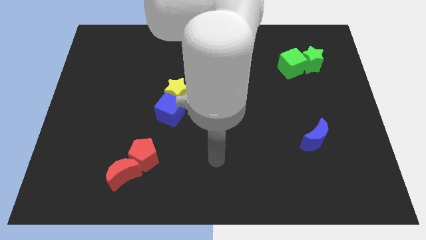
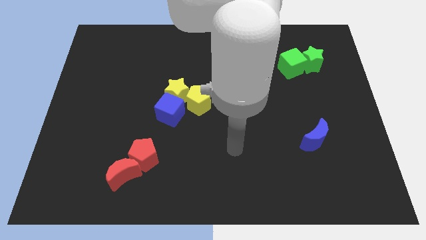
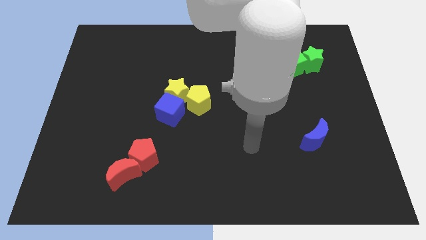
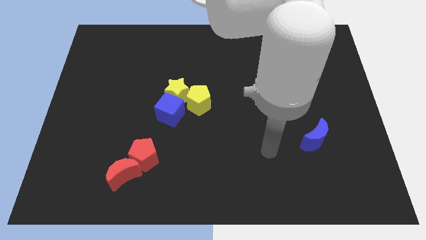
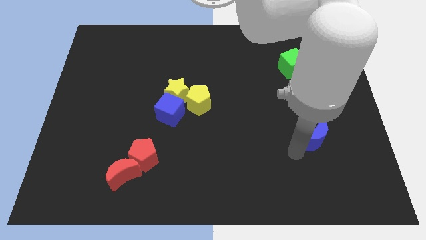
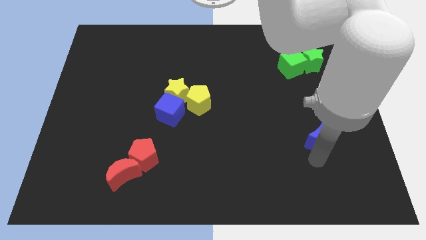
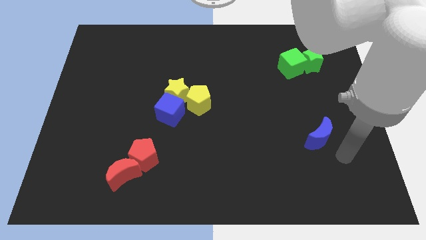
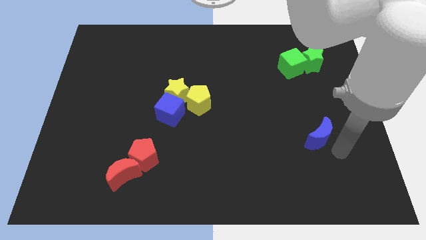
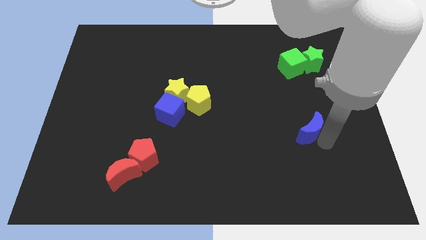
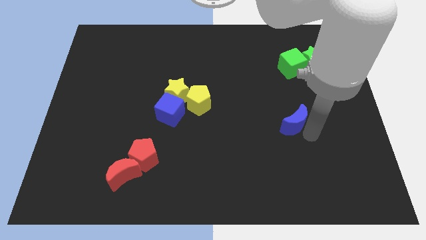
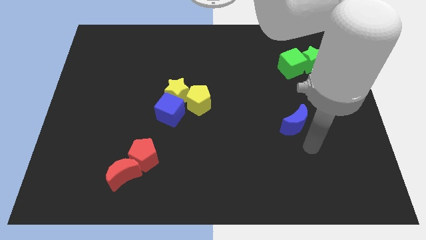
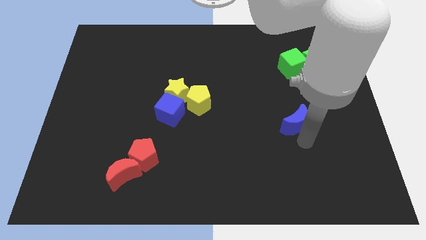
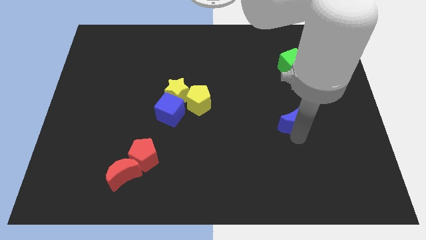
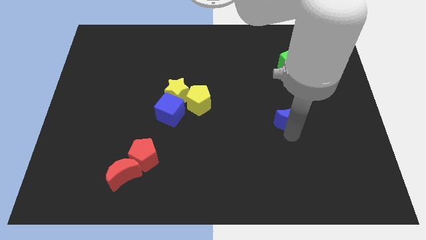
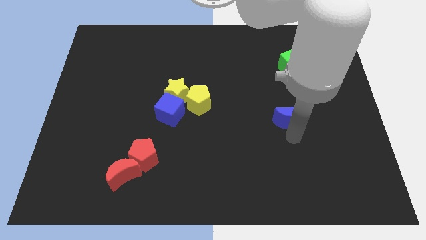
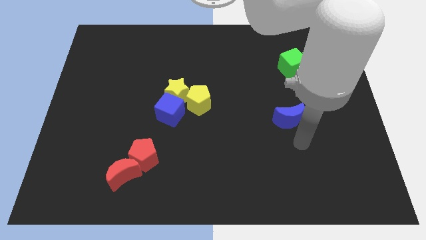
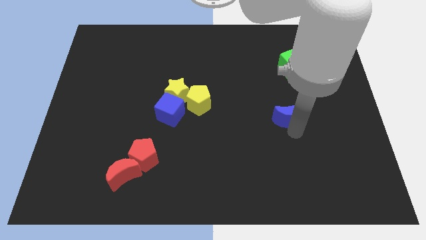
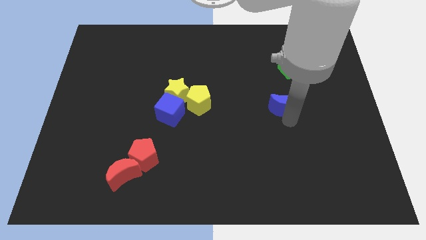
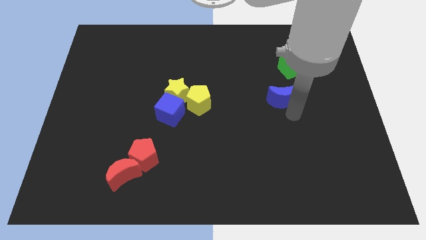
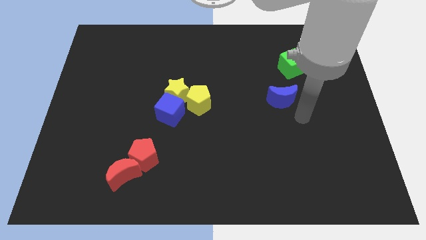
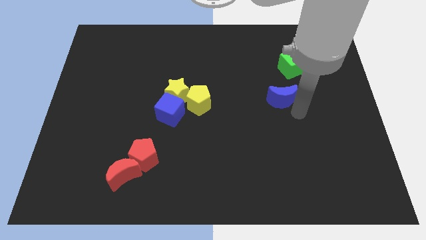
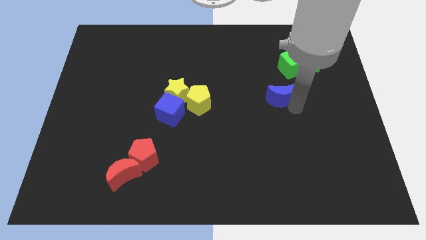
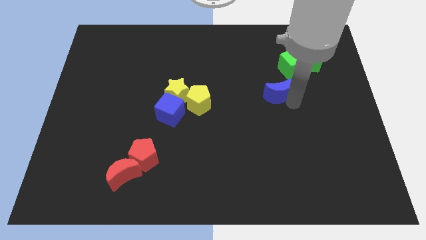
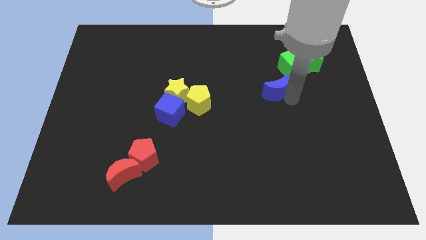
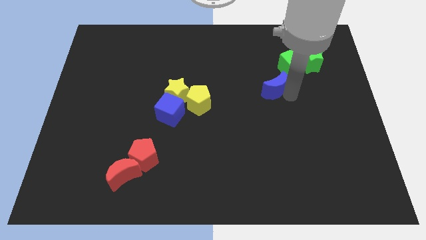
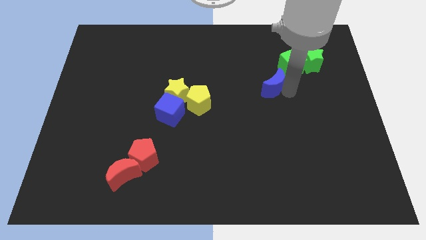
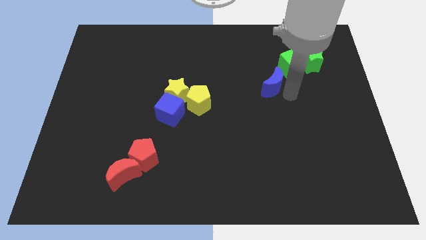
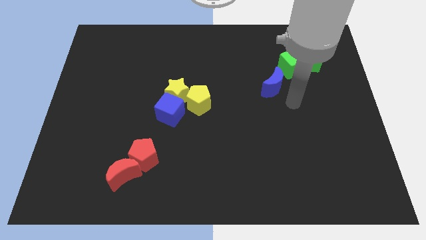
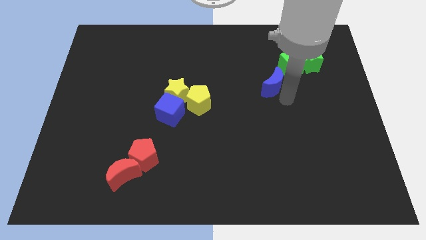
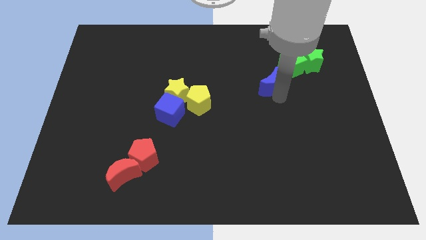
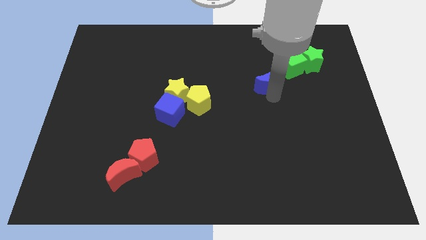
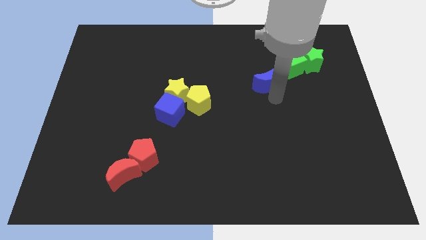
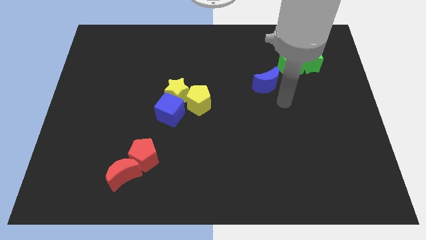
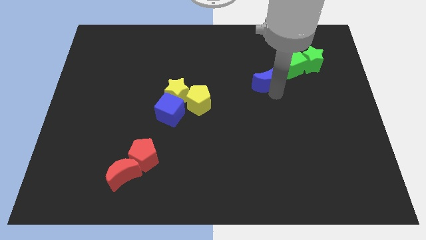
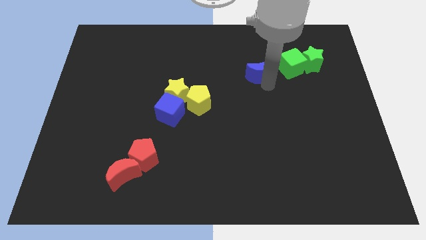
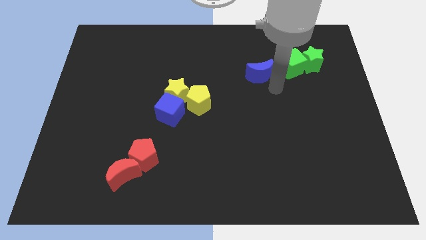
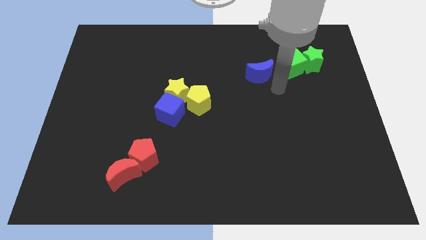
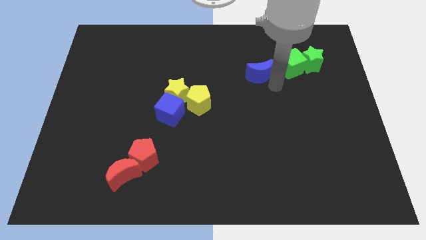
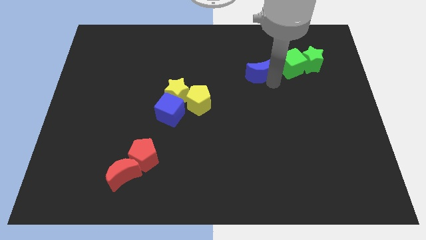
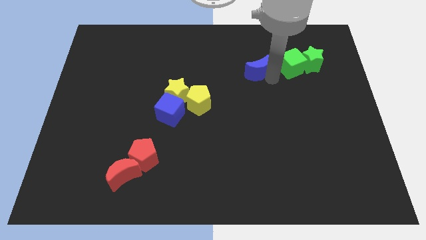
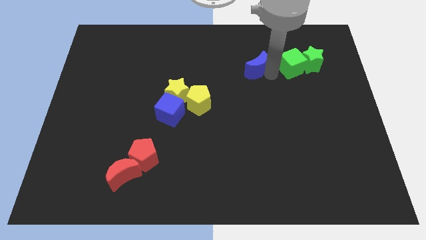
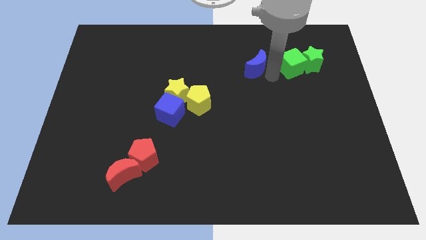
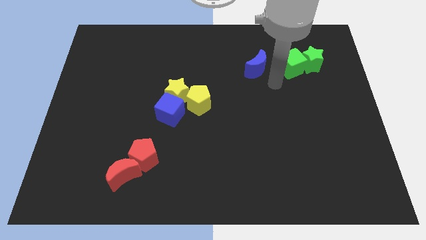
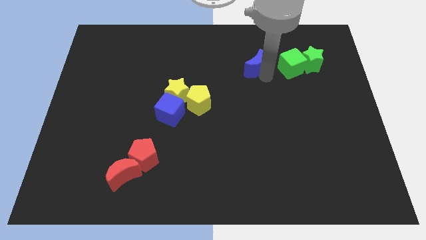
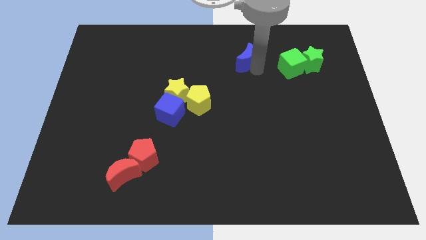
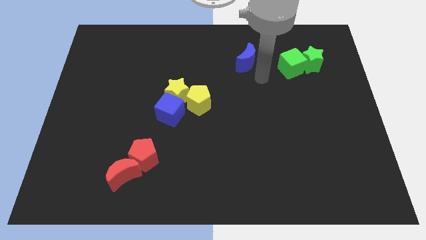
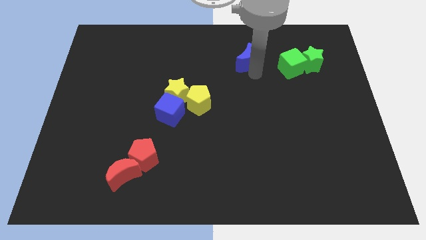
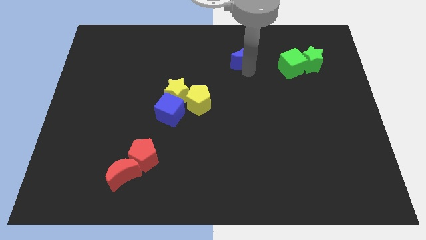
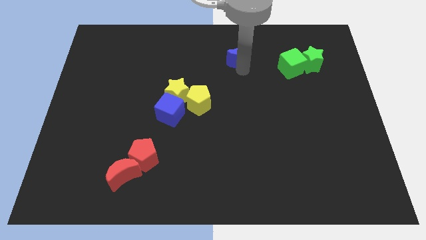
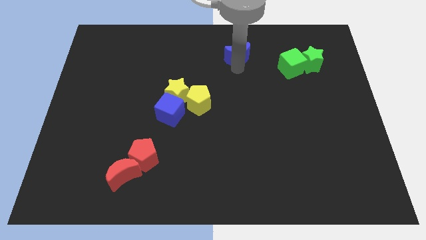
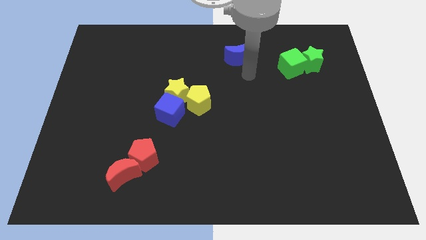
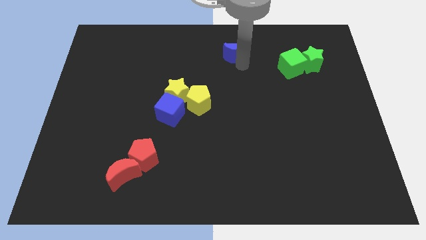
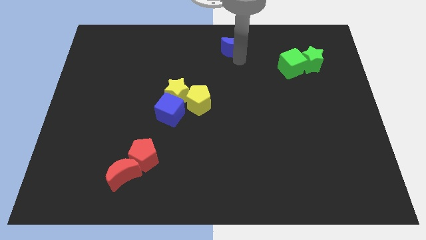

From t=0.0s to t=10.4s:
move the blue moon to the top

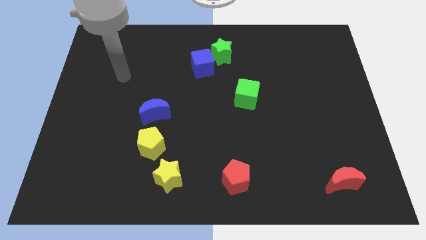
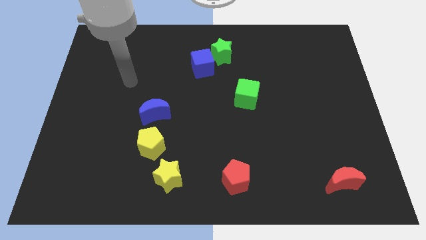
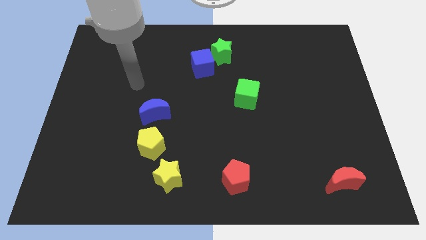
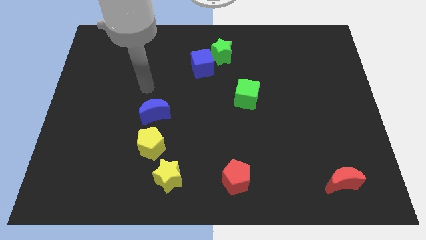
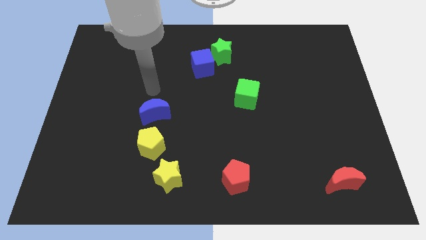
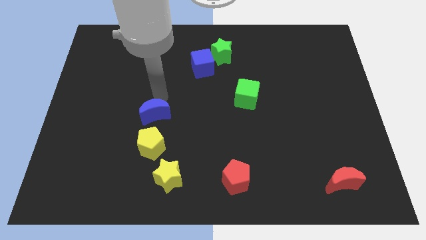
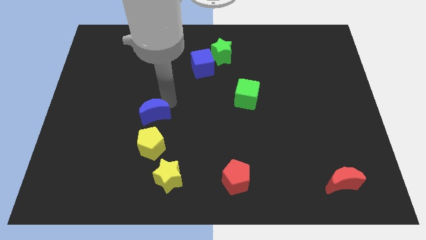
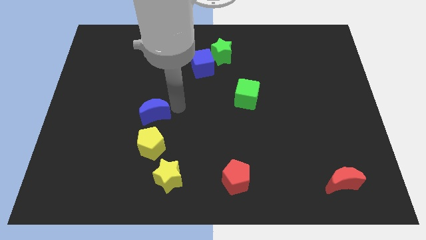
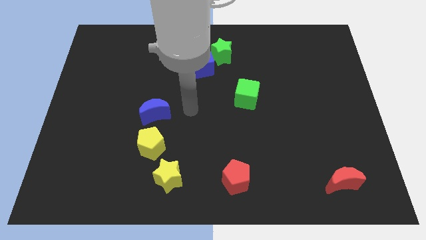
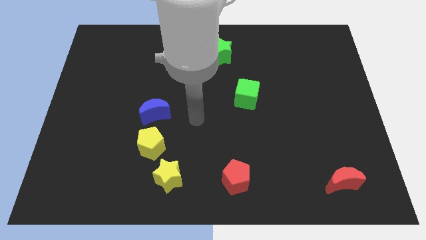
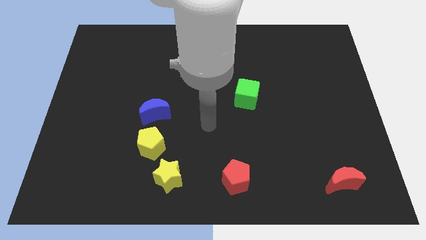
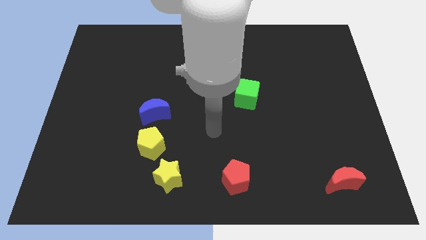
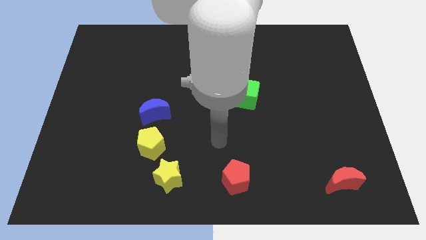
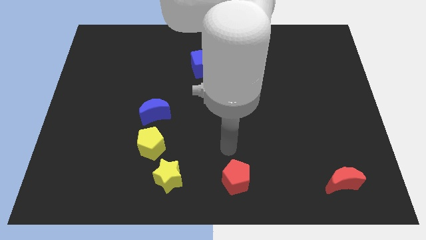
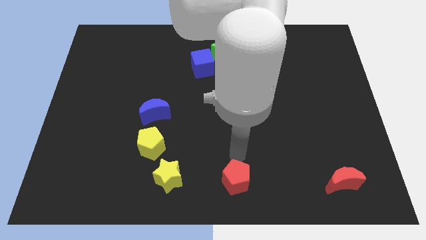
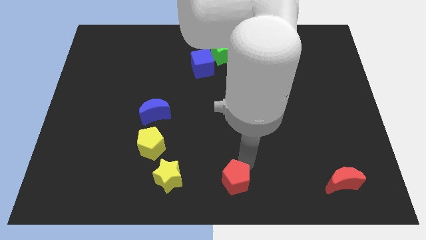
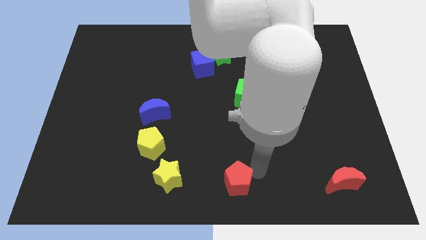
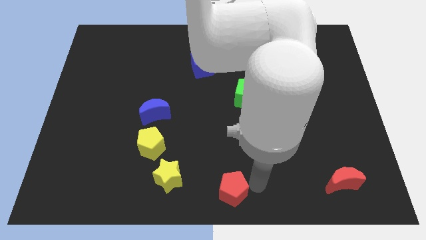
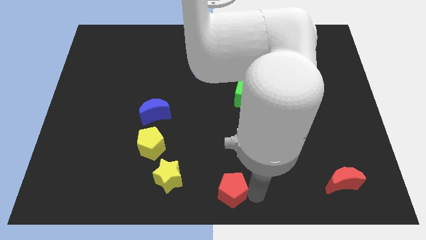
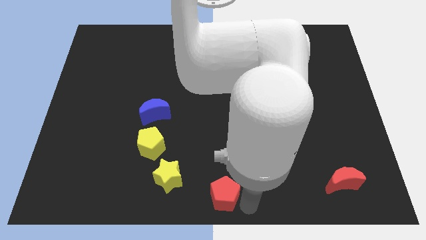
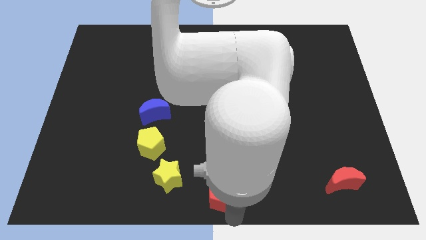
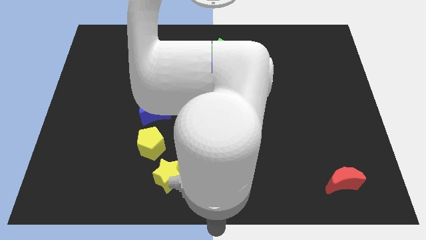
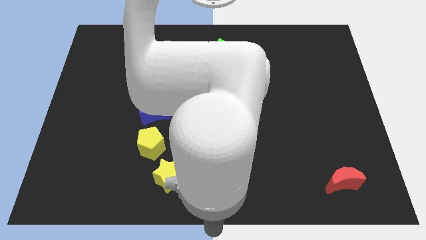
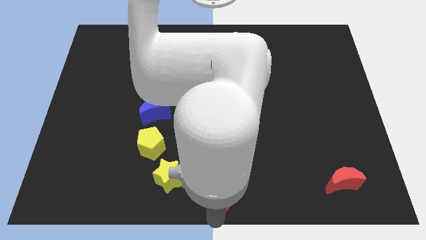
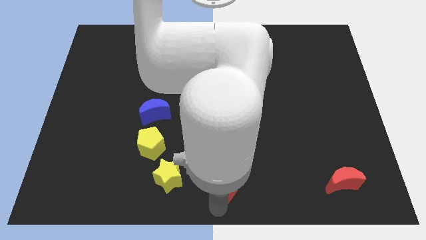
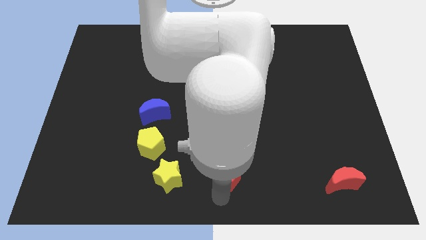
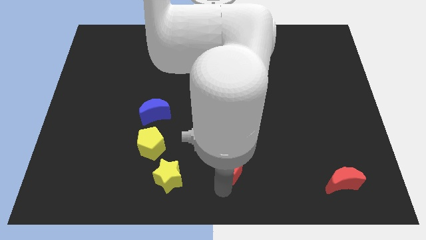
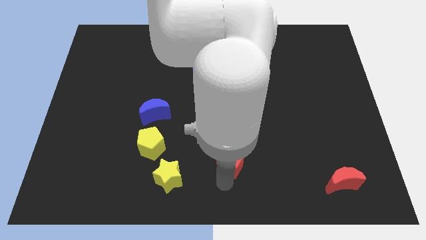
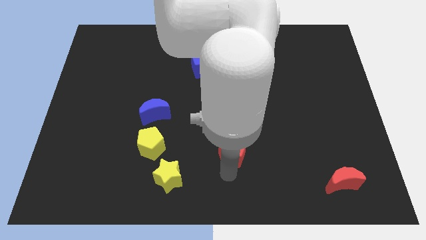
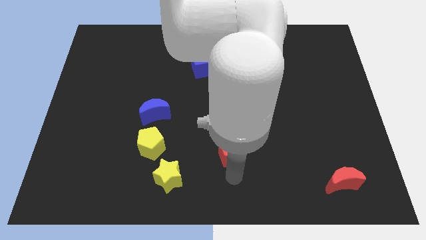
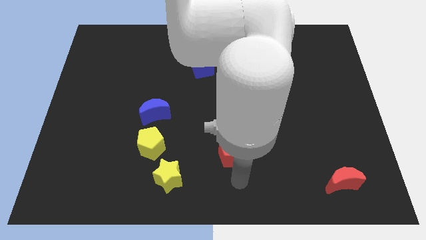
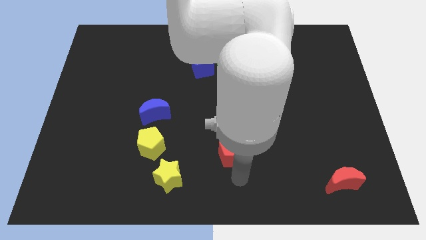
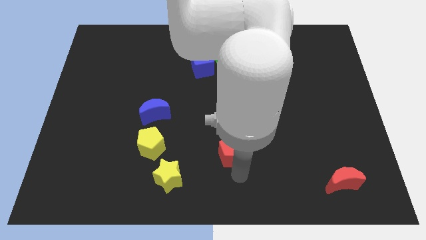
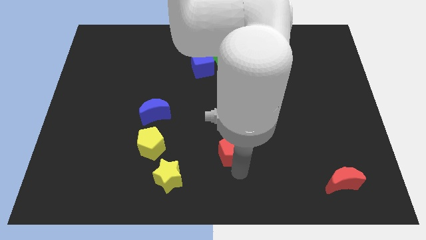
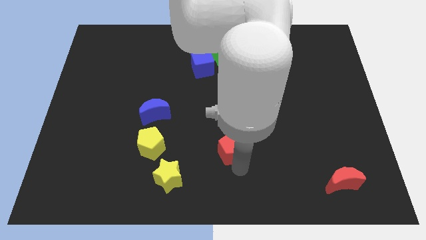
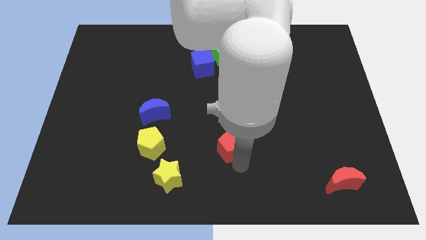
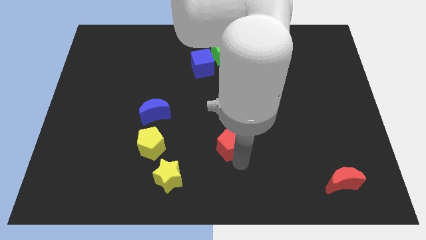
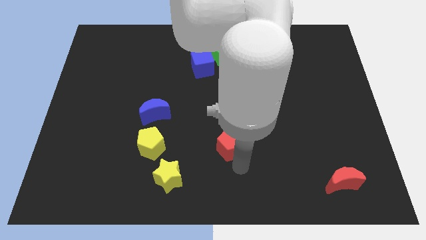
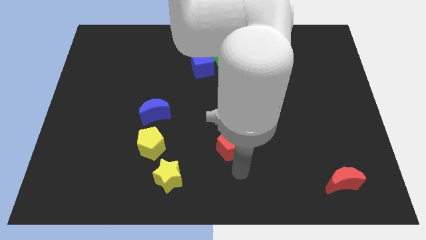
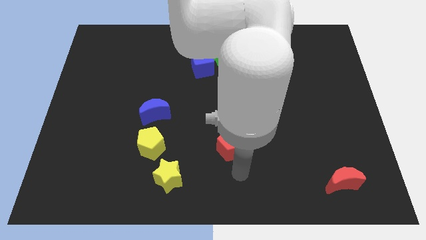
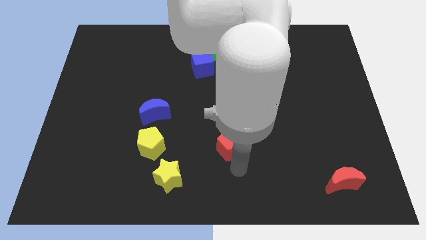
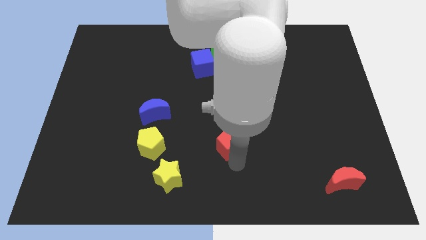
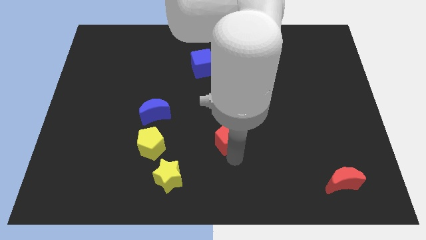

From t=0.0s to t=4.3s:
put the red pentagon to the middle
